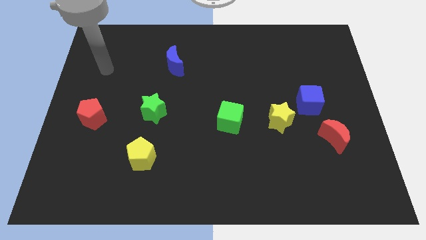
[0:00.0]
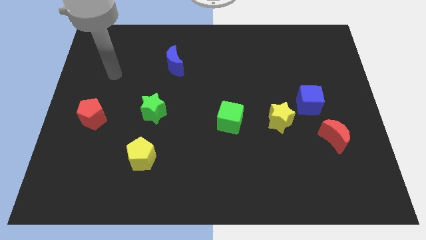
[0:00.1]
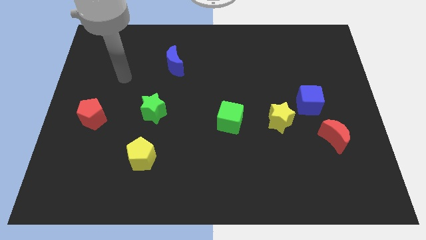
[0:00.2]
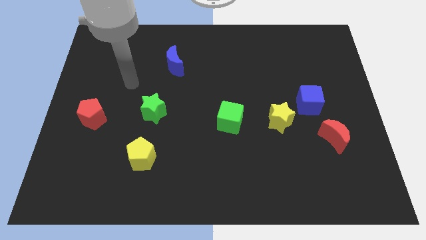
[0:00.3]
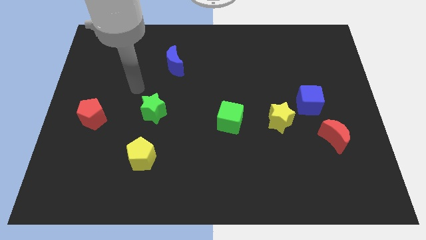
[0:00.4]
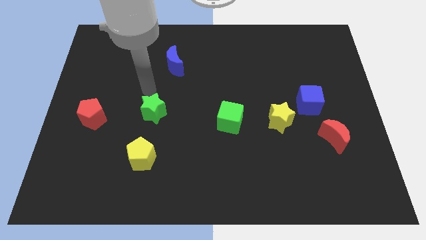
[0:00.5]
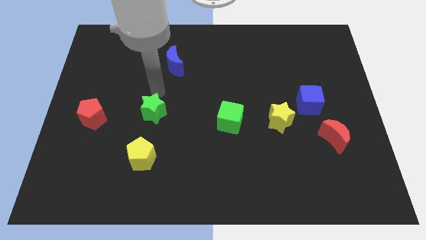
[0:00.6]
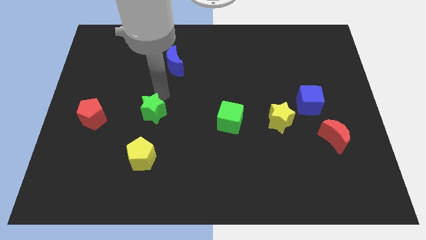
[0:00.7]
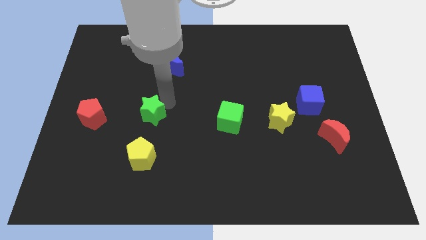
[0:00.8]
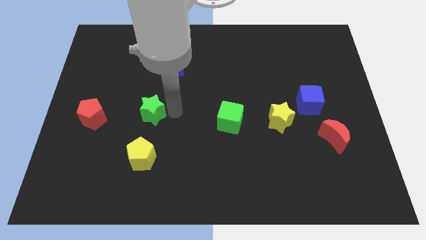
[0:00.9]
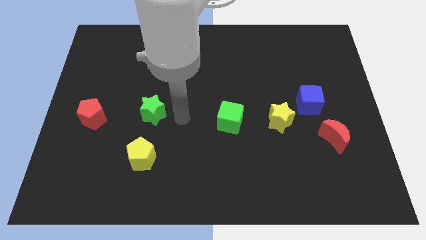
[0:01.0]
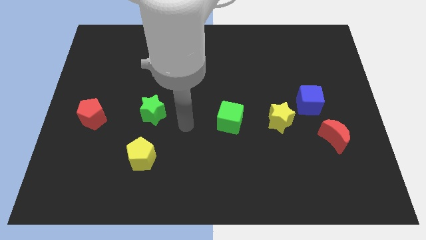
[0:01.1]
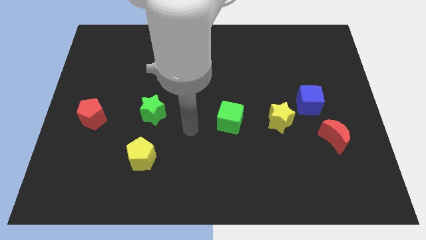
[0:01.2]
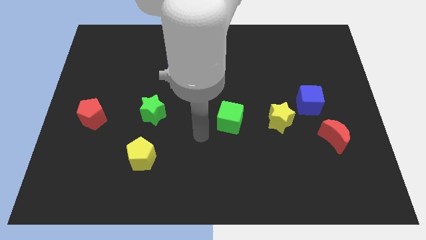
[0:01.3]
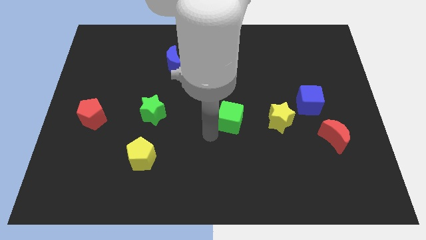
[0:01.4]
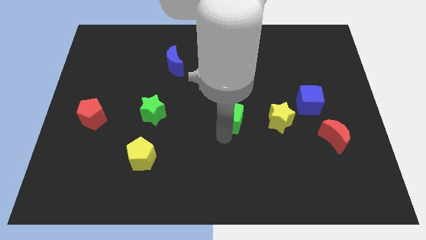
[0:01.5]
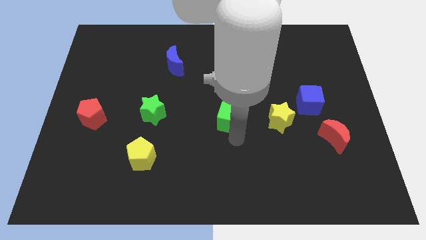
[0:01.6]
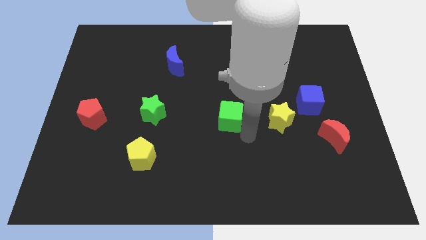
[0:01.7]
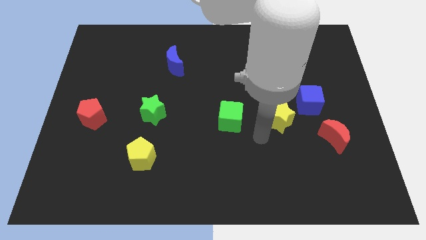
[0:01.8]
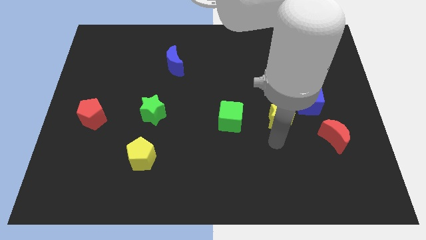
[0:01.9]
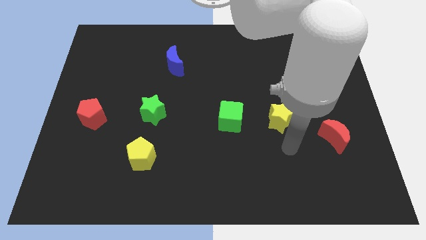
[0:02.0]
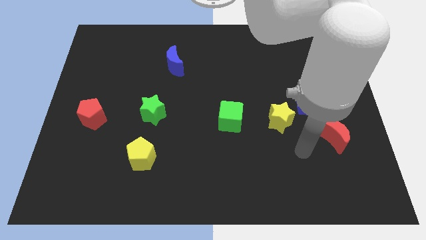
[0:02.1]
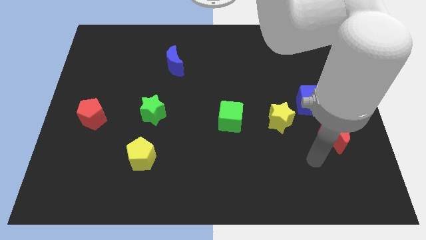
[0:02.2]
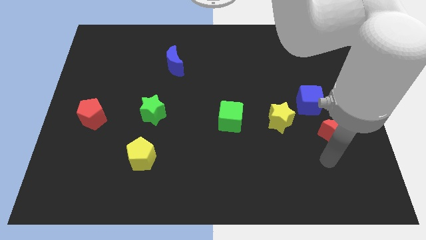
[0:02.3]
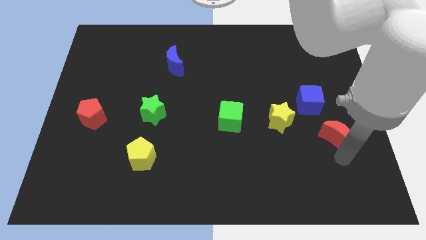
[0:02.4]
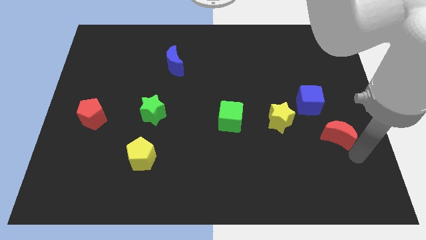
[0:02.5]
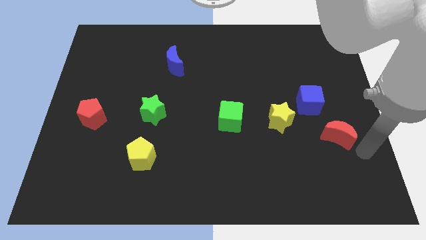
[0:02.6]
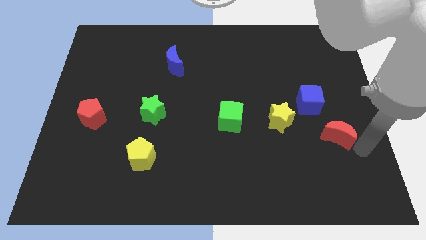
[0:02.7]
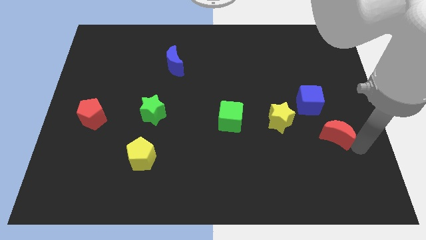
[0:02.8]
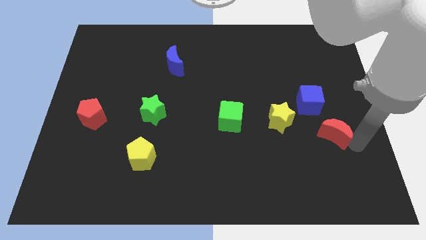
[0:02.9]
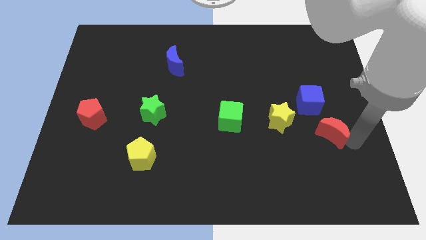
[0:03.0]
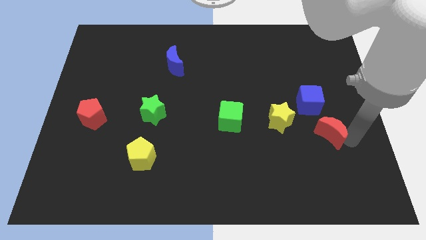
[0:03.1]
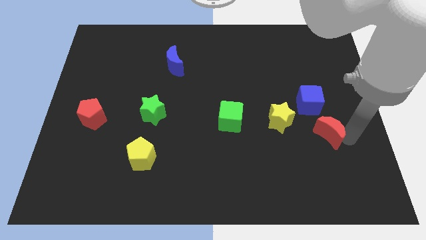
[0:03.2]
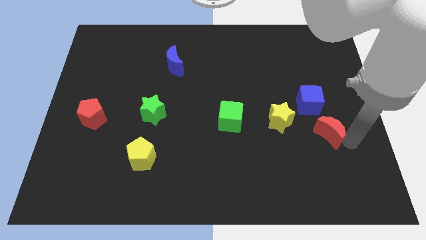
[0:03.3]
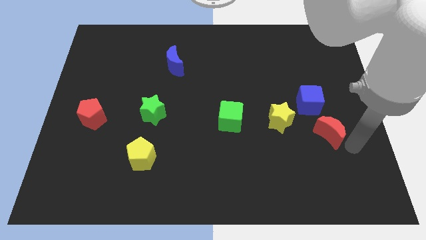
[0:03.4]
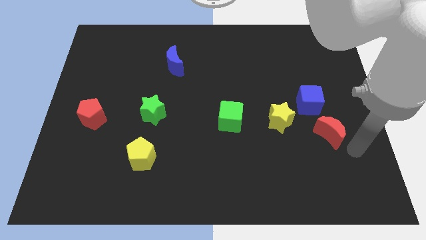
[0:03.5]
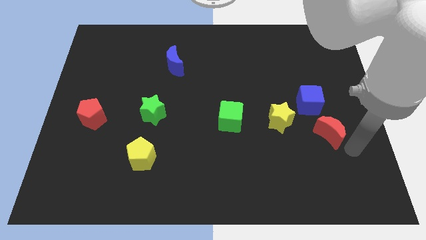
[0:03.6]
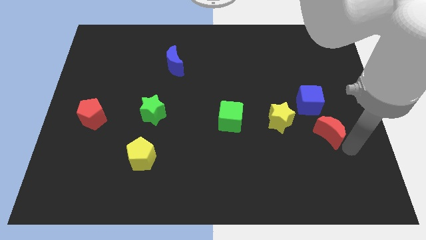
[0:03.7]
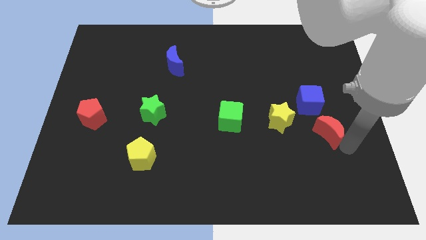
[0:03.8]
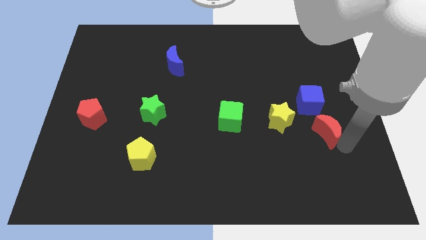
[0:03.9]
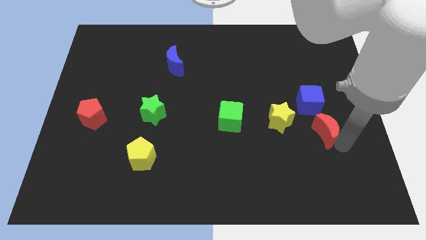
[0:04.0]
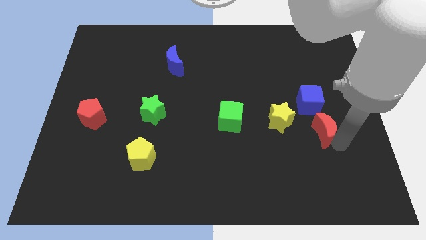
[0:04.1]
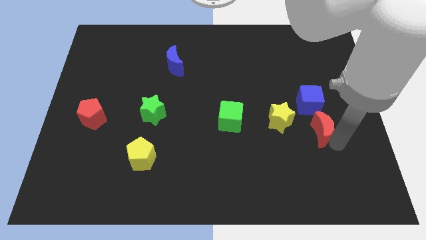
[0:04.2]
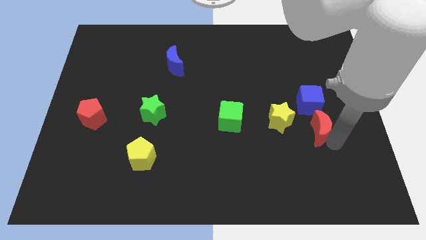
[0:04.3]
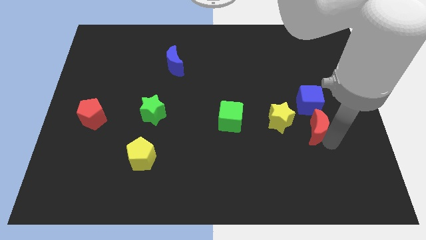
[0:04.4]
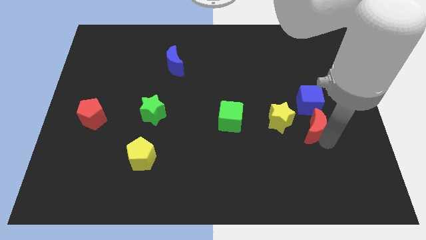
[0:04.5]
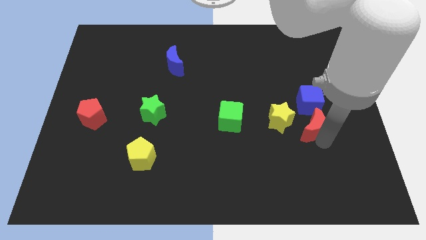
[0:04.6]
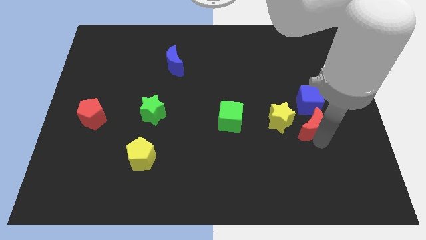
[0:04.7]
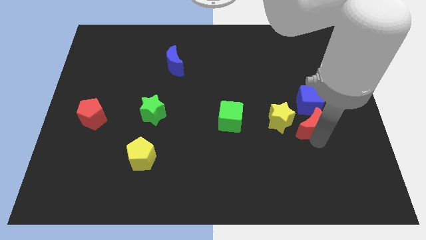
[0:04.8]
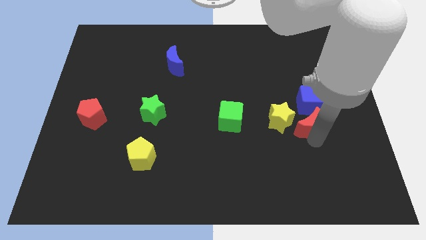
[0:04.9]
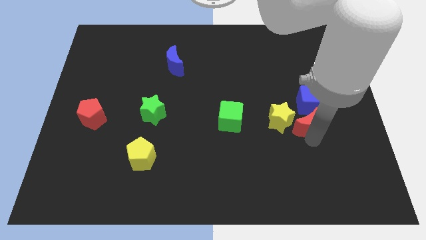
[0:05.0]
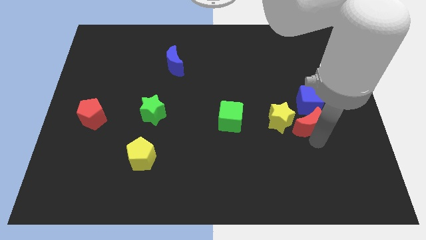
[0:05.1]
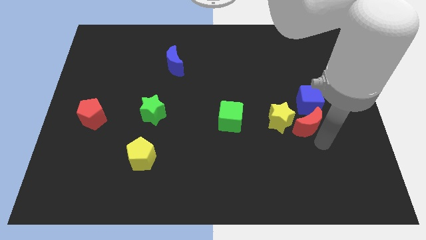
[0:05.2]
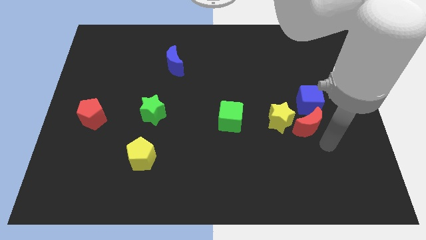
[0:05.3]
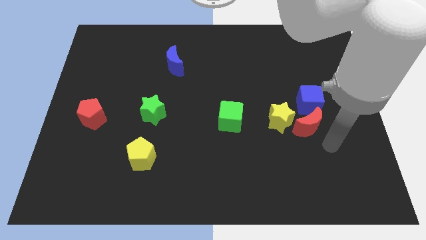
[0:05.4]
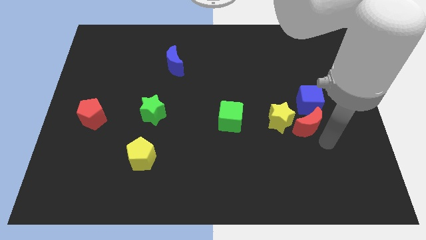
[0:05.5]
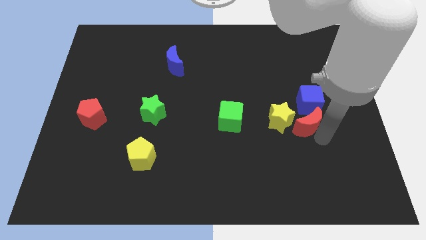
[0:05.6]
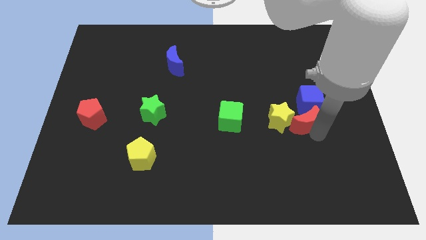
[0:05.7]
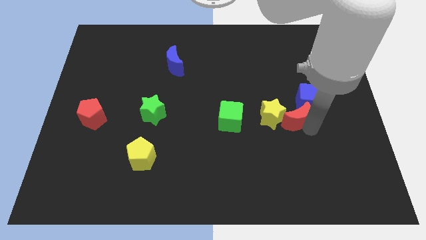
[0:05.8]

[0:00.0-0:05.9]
move the red moon slightly upwards and to the left diagonally

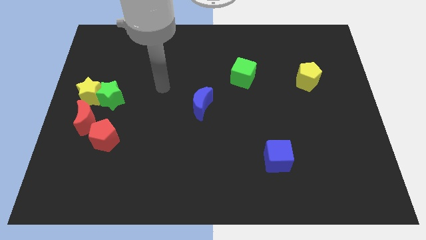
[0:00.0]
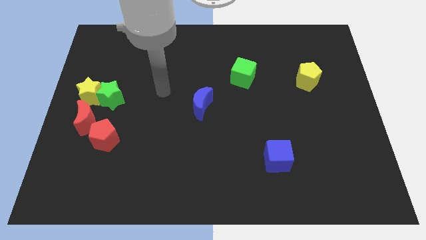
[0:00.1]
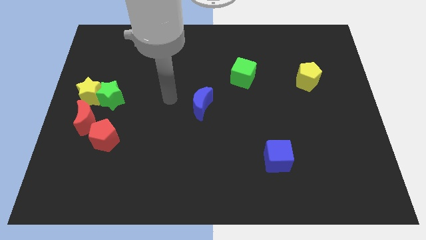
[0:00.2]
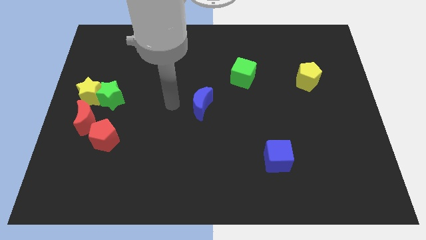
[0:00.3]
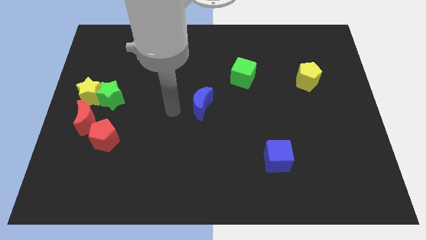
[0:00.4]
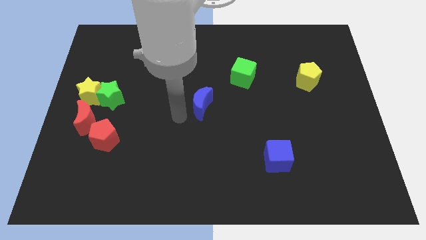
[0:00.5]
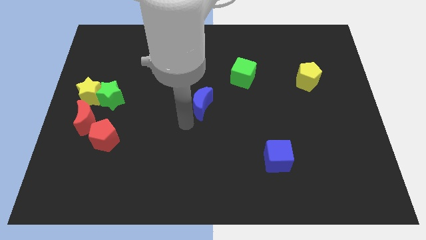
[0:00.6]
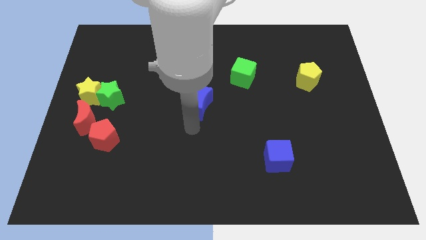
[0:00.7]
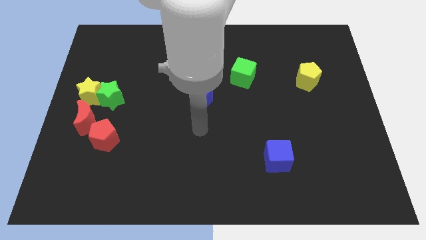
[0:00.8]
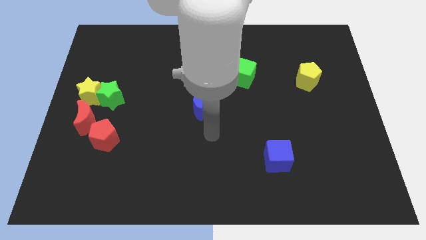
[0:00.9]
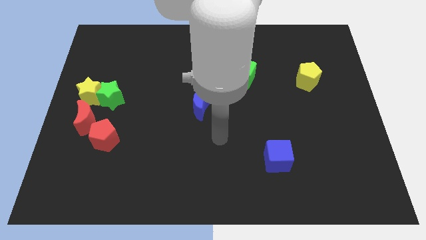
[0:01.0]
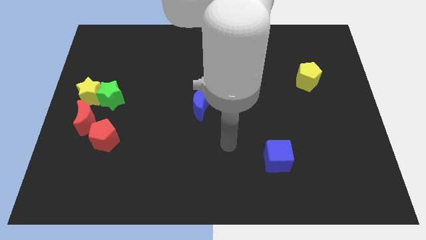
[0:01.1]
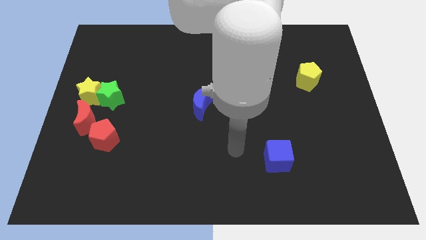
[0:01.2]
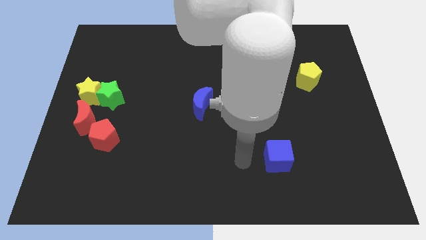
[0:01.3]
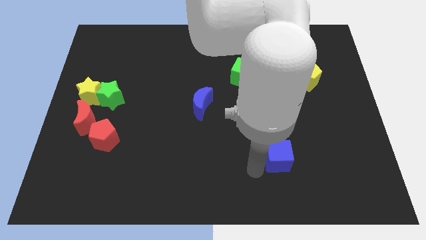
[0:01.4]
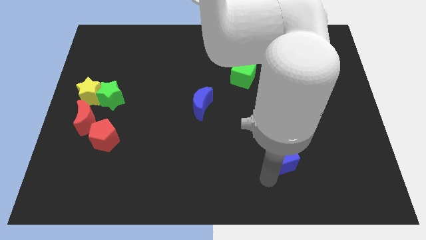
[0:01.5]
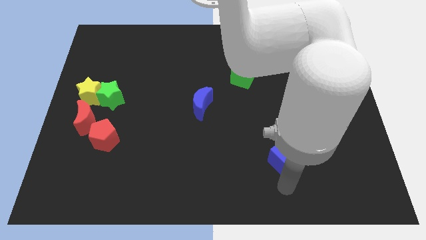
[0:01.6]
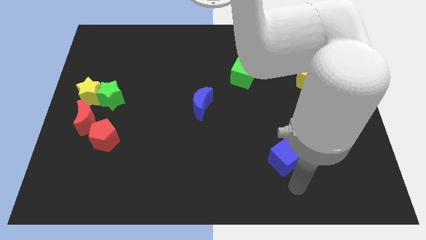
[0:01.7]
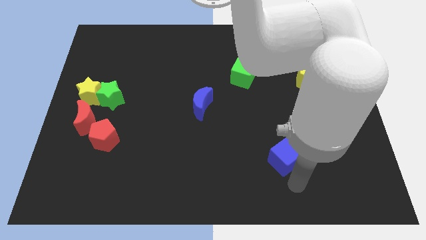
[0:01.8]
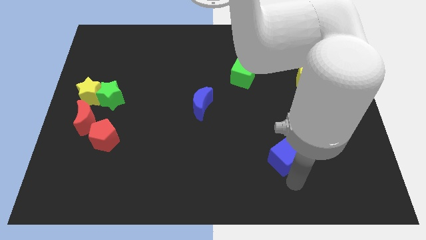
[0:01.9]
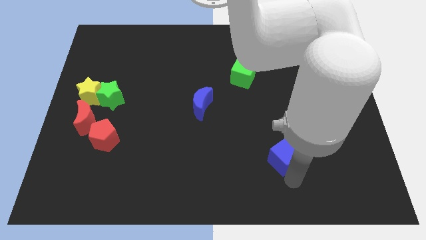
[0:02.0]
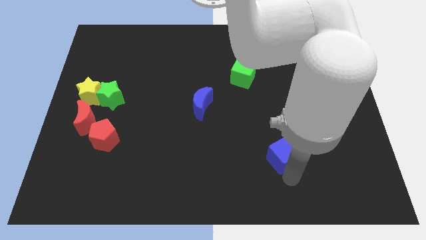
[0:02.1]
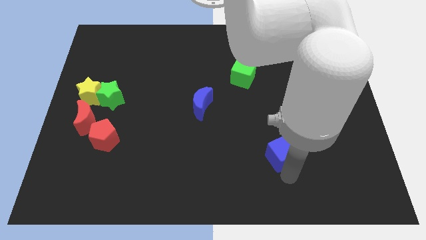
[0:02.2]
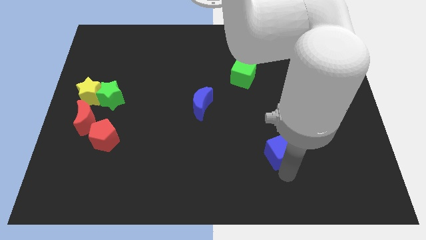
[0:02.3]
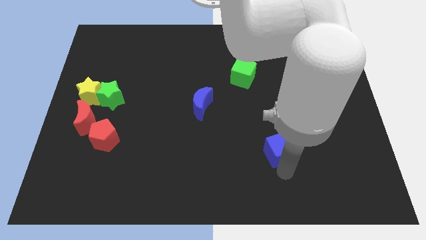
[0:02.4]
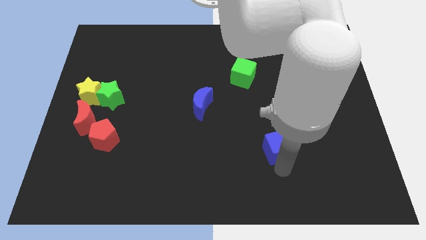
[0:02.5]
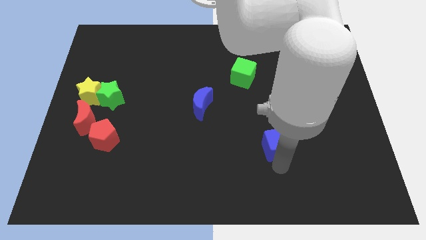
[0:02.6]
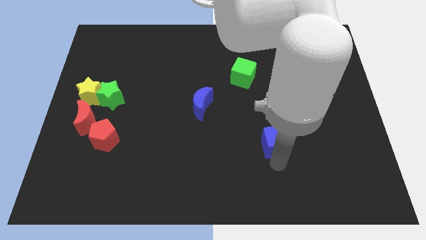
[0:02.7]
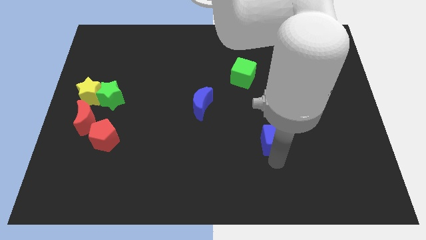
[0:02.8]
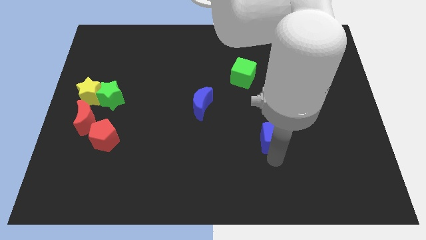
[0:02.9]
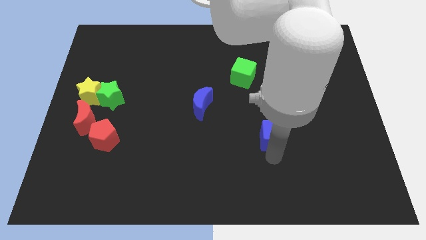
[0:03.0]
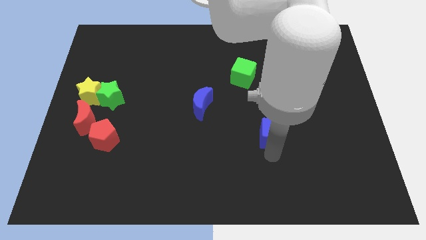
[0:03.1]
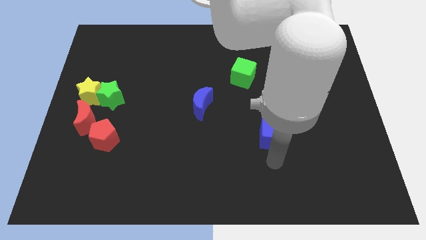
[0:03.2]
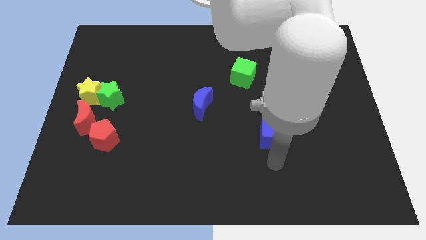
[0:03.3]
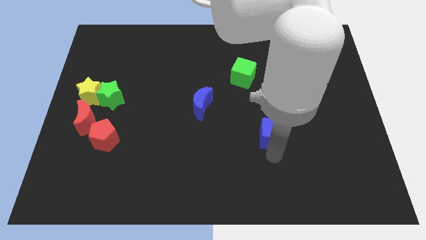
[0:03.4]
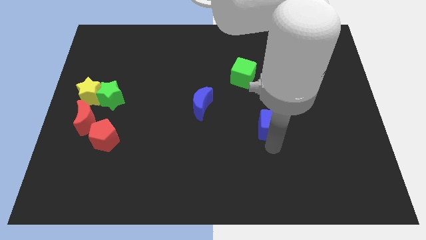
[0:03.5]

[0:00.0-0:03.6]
slightly move the blue cube upwards
